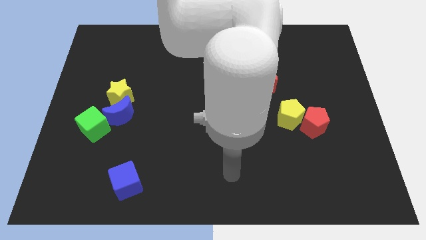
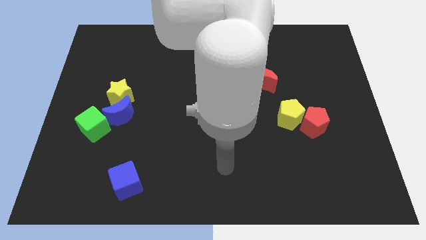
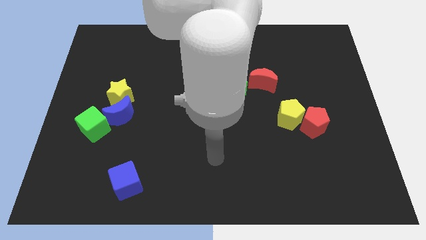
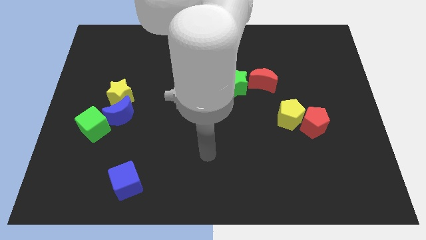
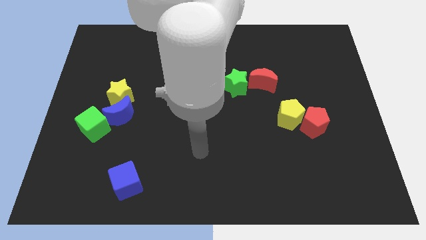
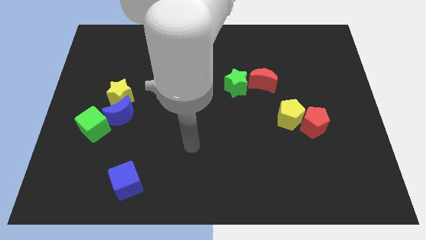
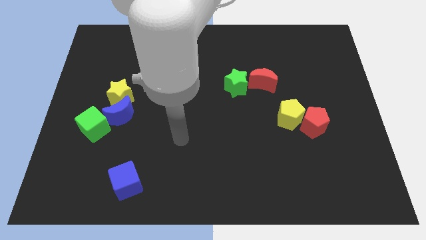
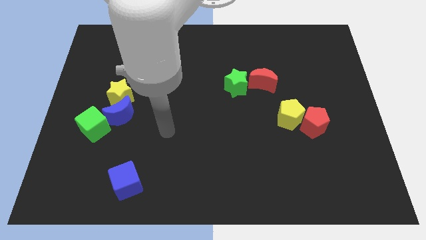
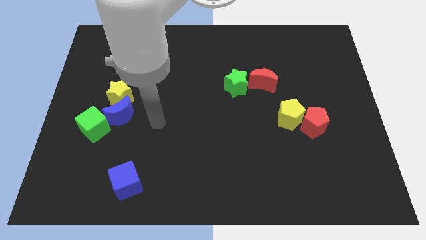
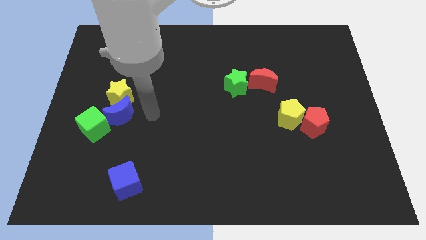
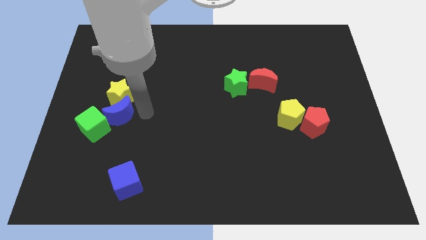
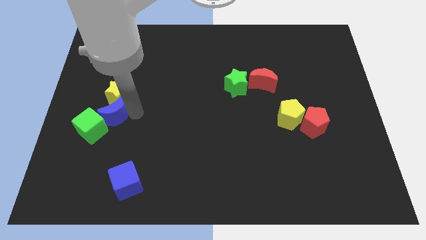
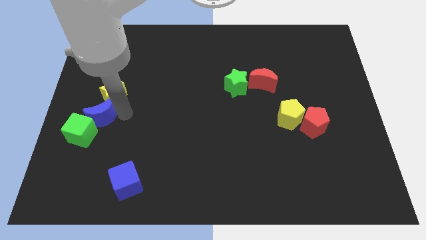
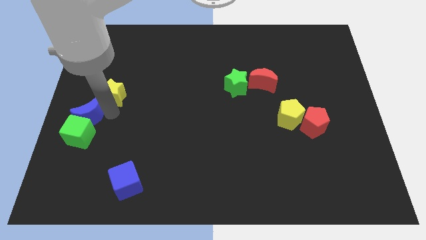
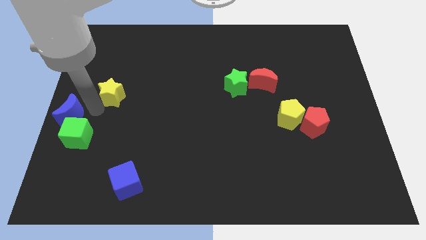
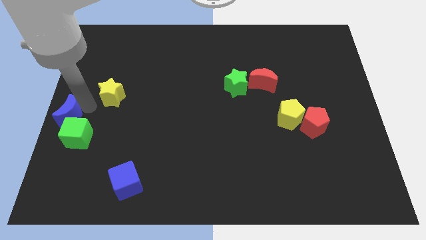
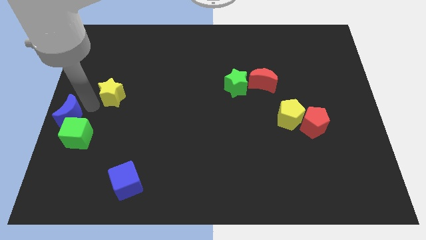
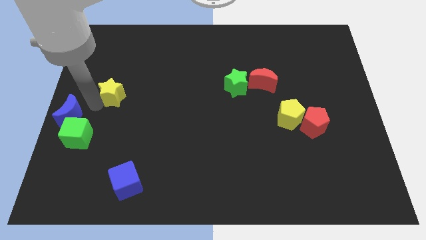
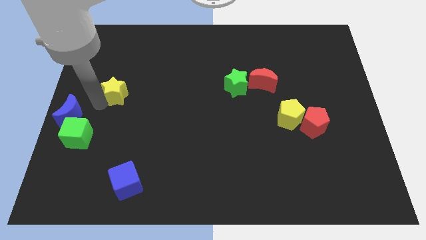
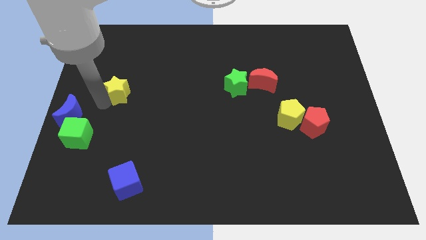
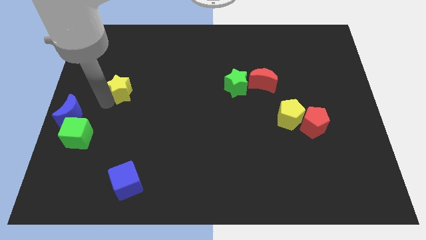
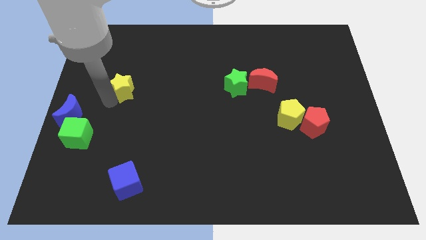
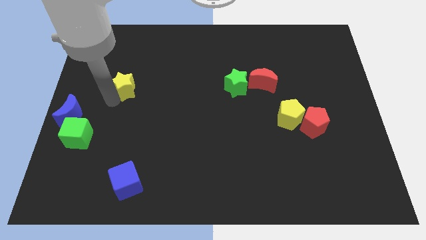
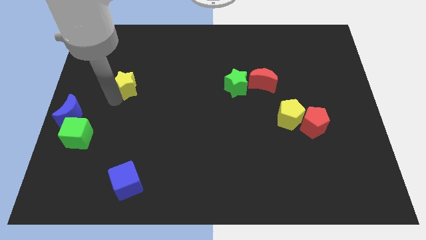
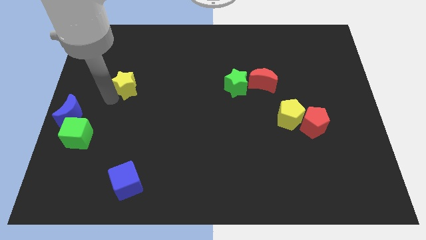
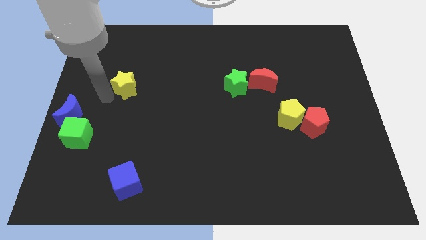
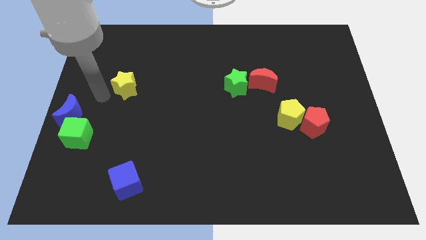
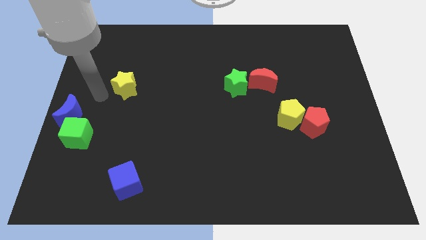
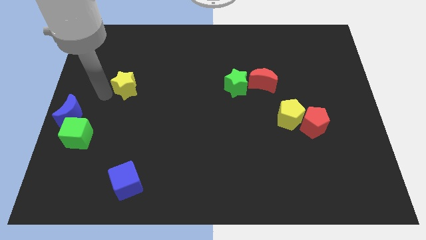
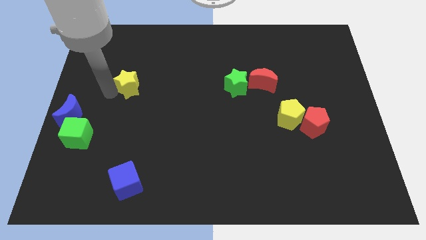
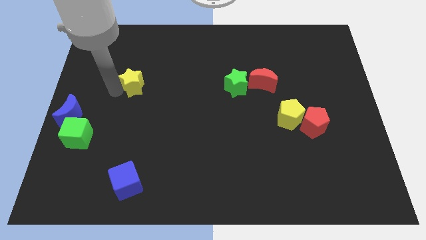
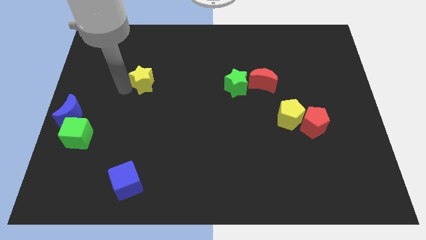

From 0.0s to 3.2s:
push the yellow star a little bit diagonally upwards and to the right

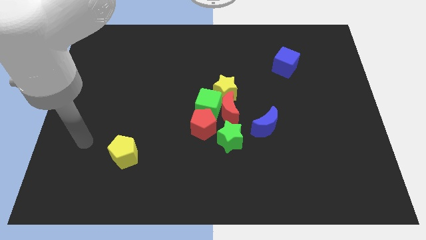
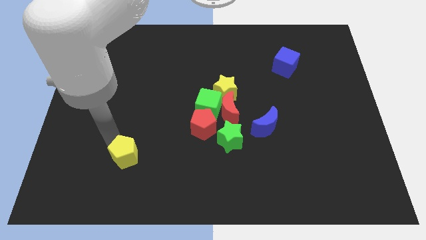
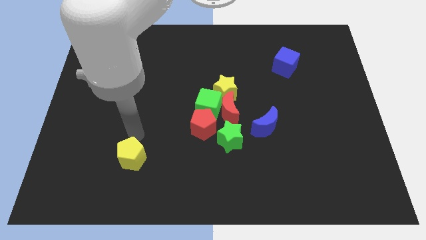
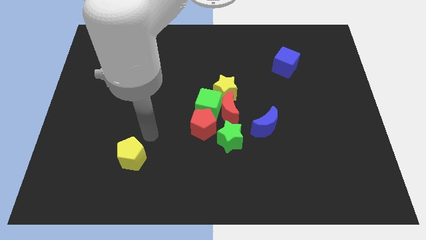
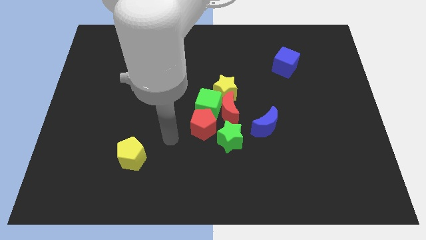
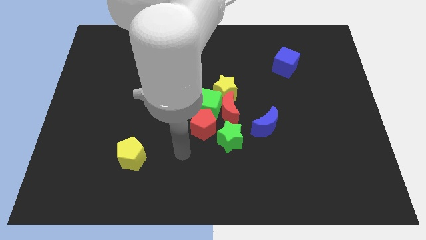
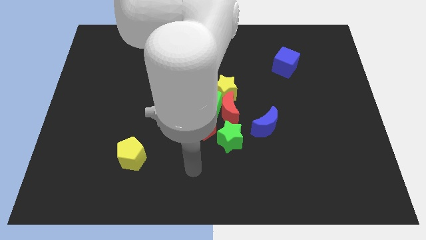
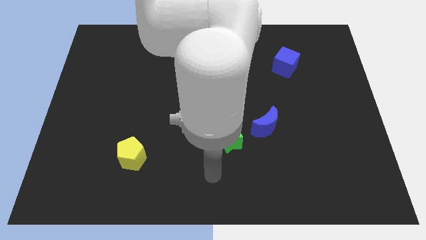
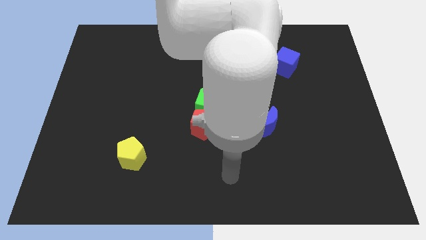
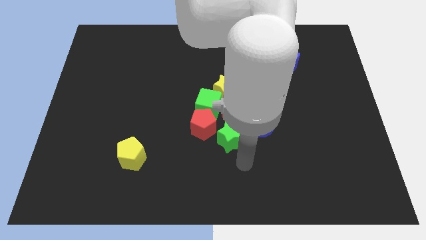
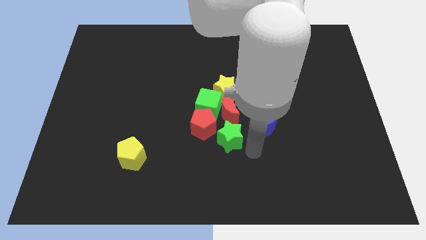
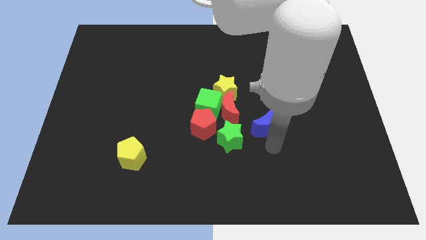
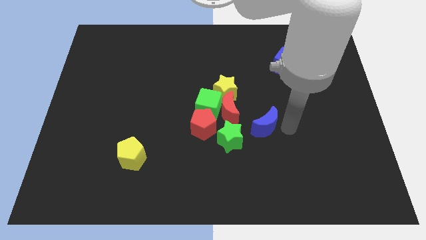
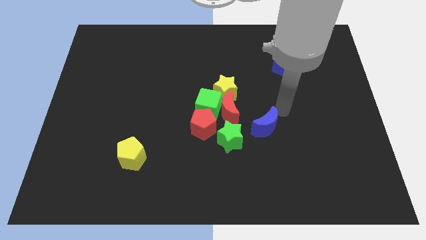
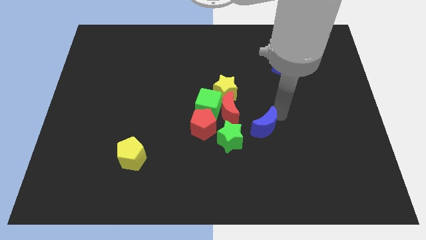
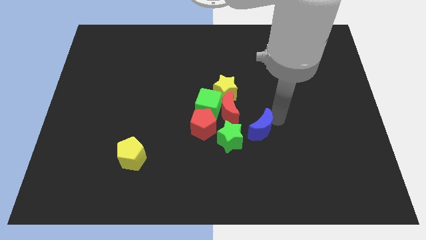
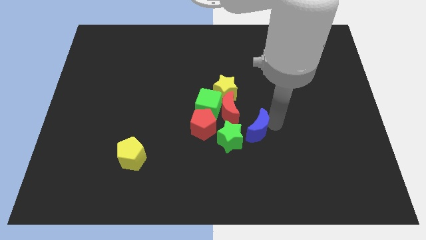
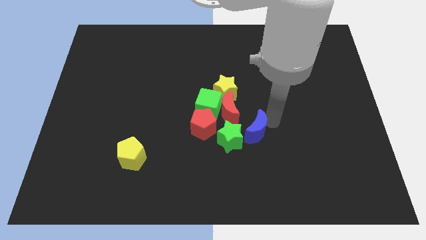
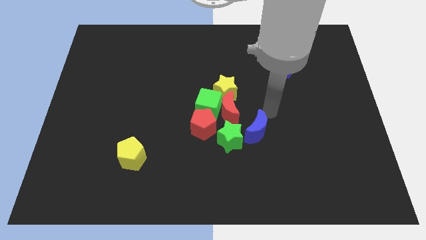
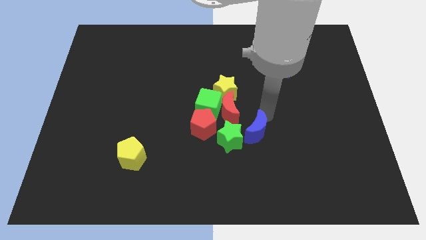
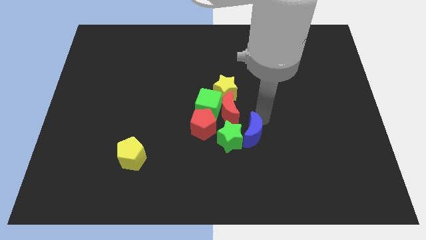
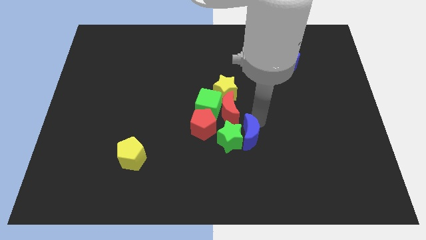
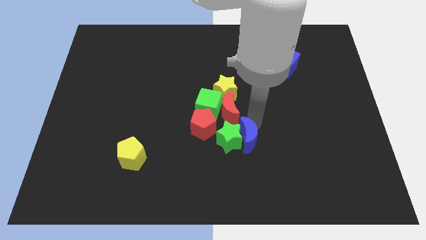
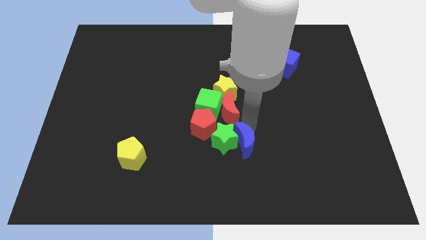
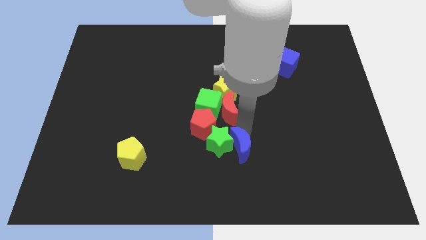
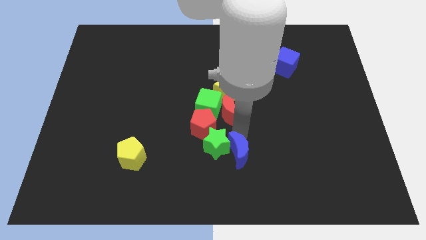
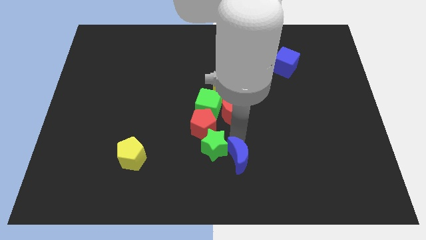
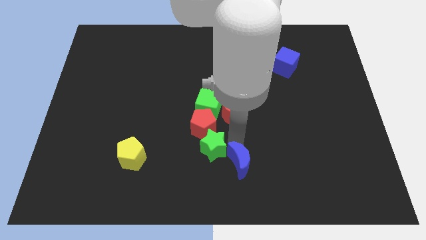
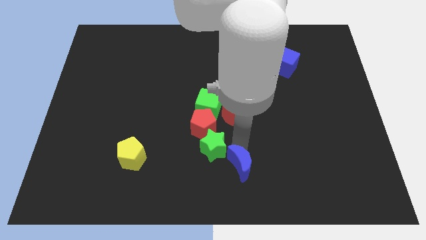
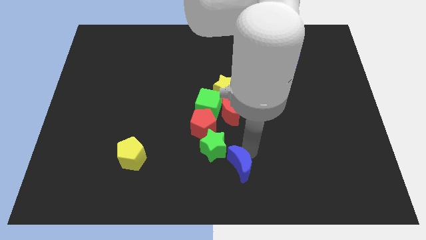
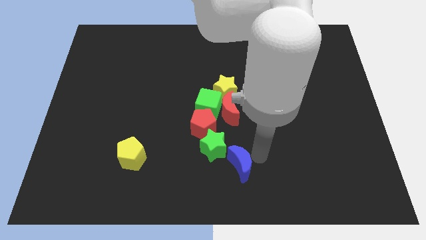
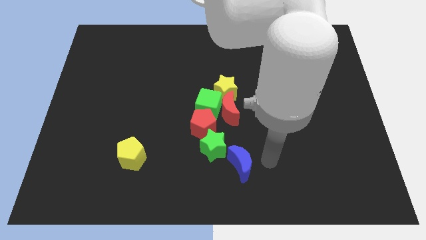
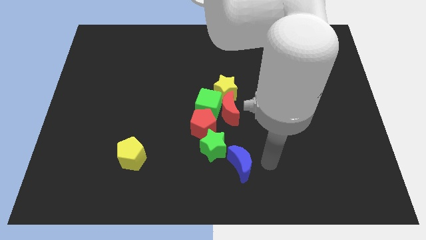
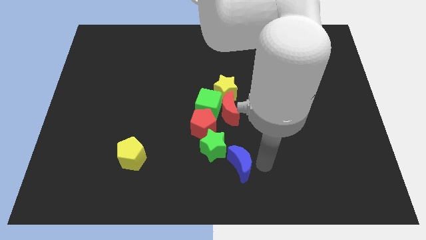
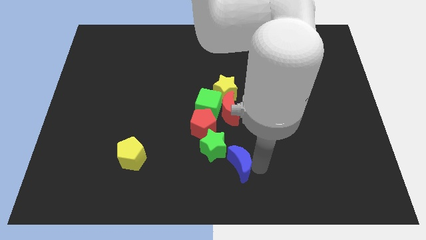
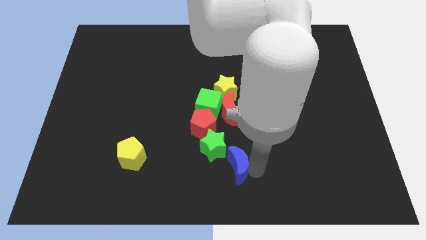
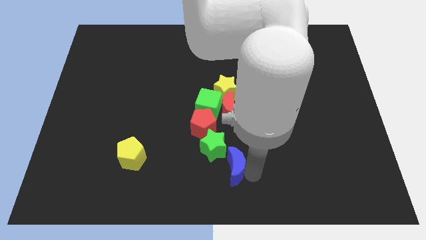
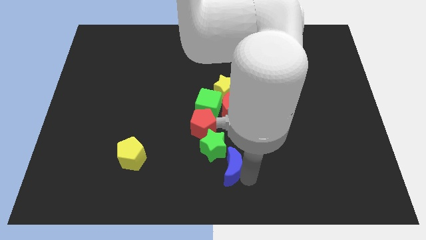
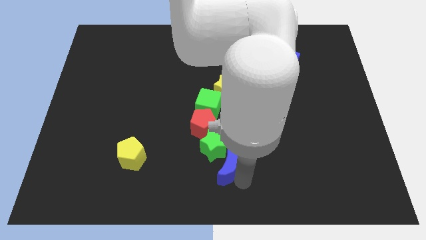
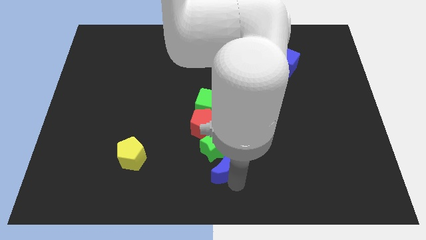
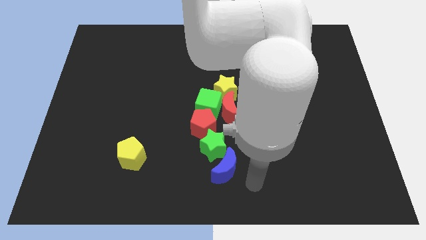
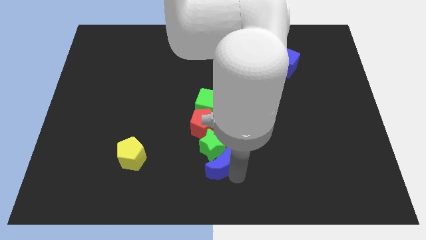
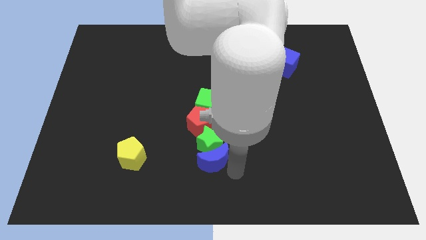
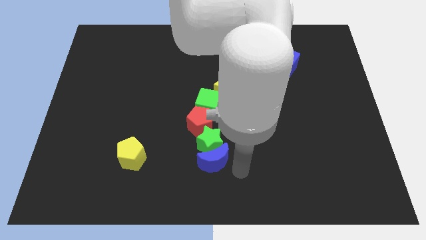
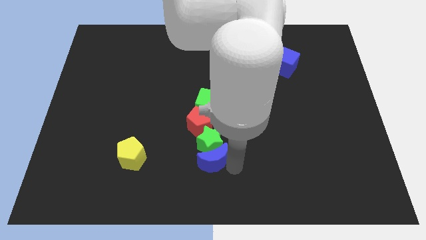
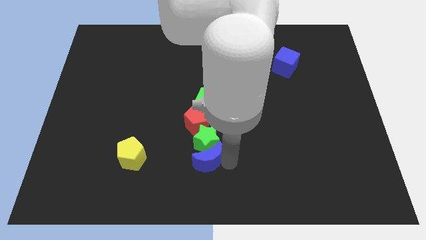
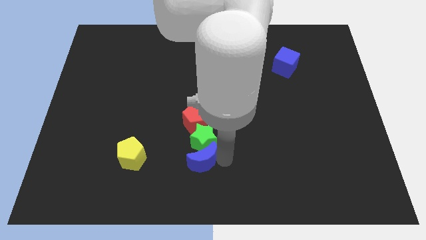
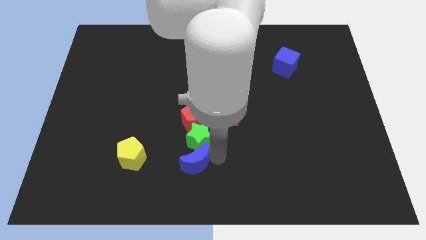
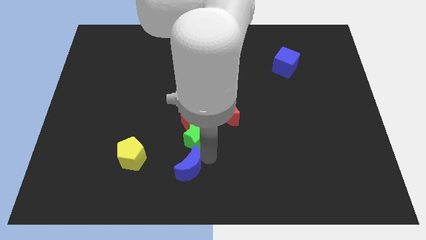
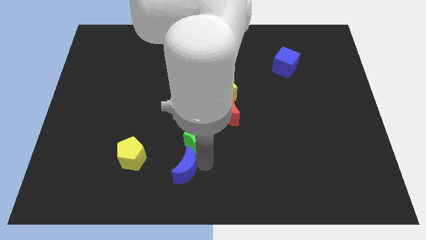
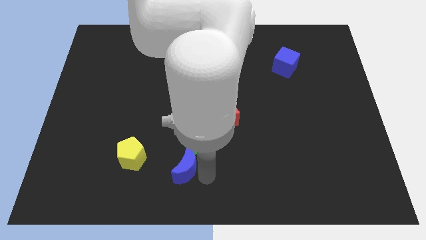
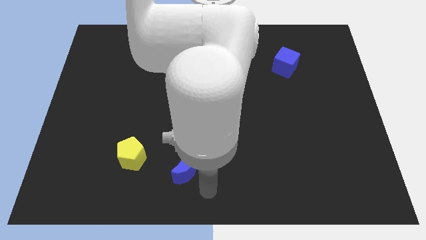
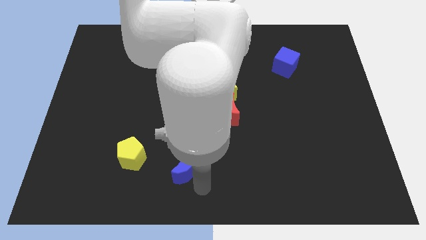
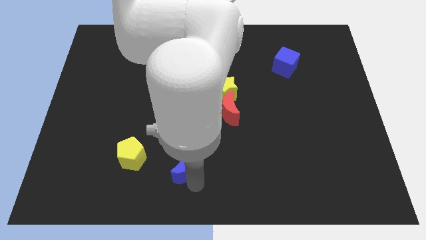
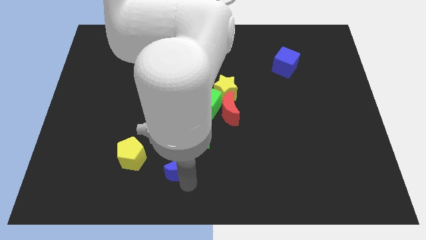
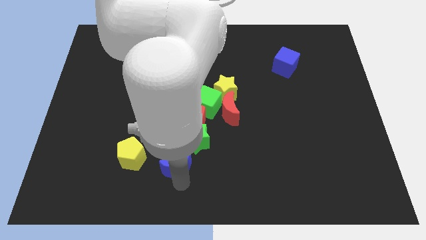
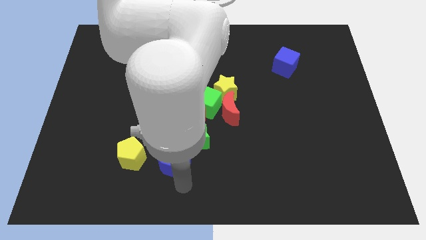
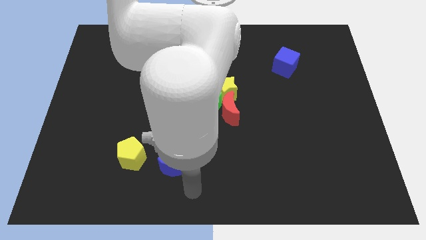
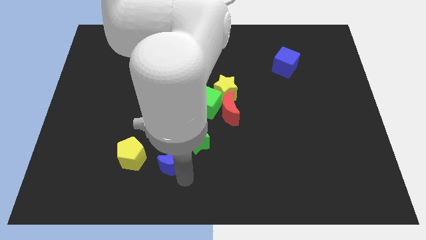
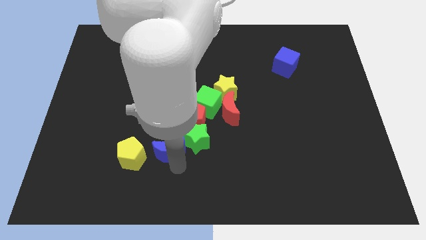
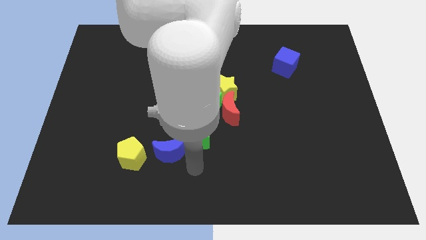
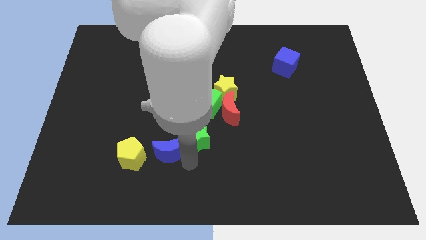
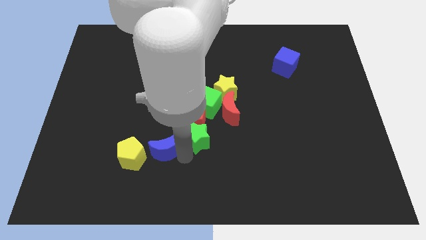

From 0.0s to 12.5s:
slide the blue moon to the left
